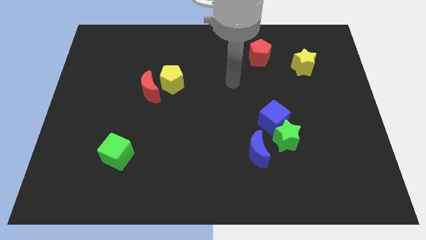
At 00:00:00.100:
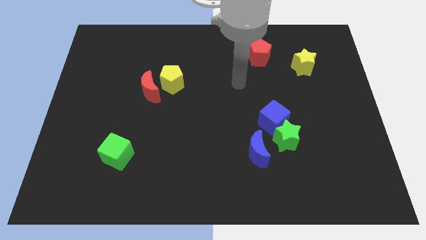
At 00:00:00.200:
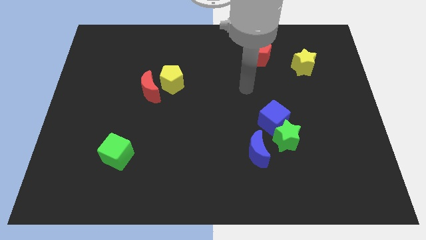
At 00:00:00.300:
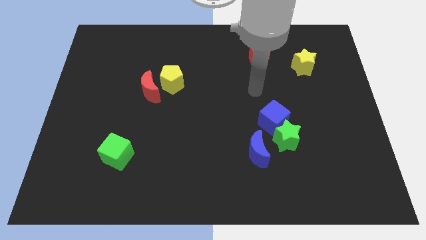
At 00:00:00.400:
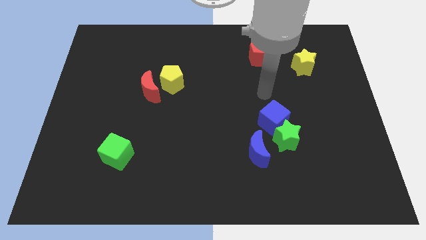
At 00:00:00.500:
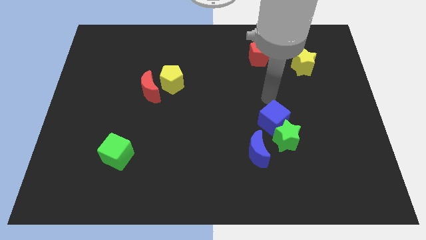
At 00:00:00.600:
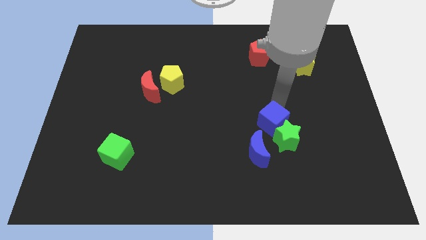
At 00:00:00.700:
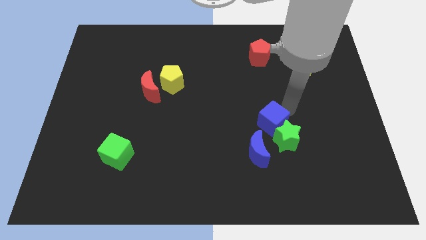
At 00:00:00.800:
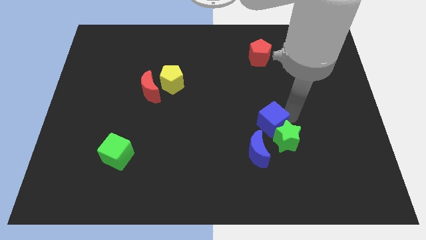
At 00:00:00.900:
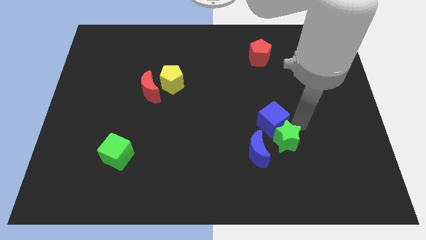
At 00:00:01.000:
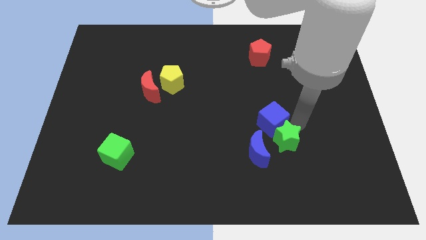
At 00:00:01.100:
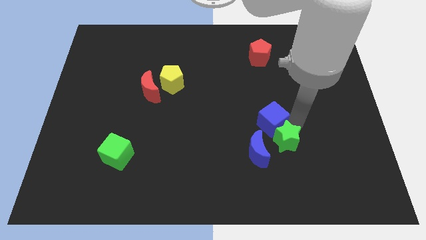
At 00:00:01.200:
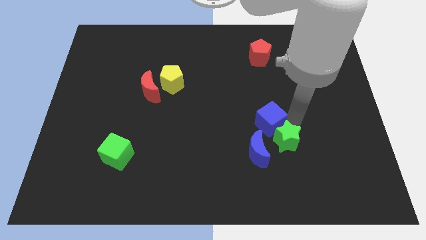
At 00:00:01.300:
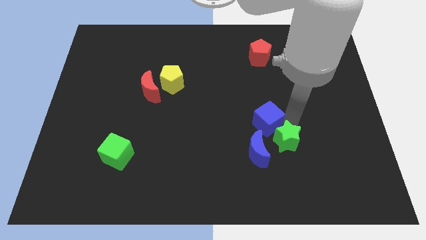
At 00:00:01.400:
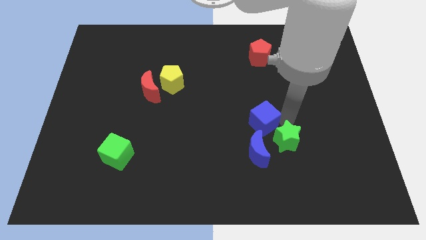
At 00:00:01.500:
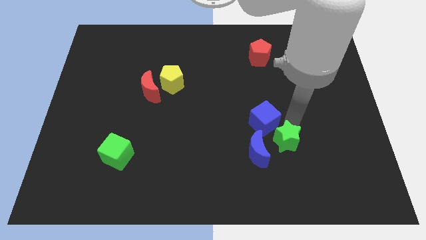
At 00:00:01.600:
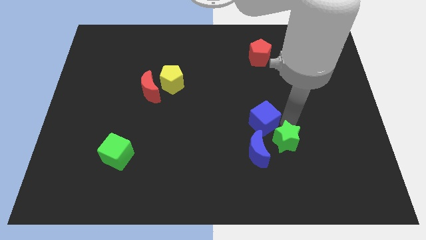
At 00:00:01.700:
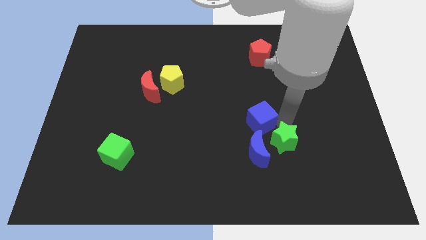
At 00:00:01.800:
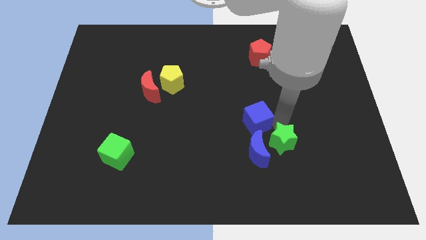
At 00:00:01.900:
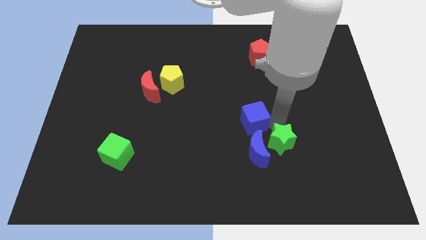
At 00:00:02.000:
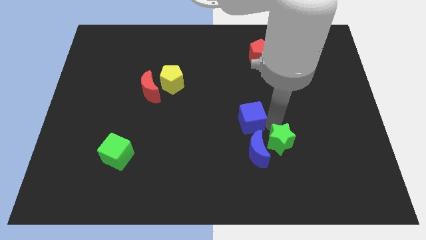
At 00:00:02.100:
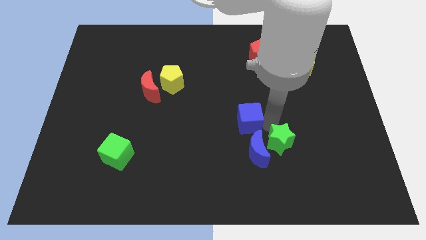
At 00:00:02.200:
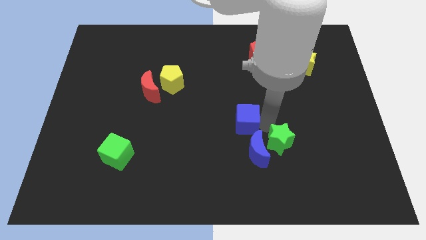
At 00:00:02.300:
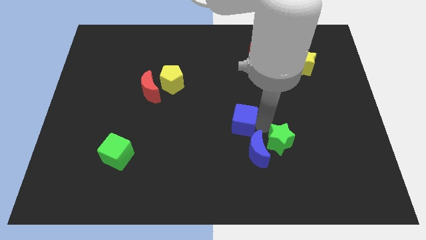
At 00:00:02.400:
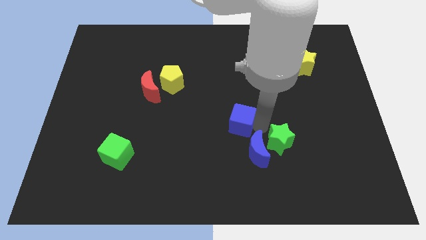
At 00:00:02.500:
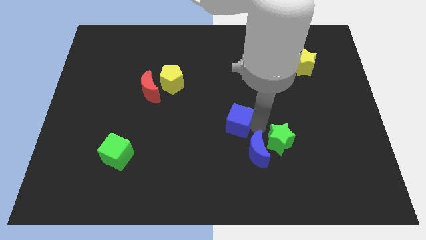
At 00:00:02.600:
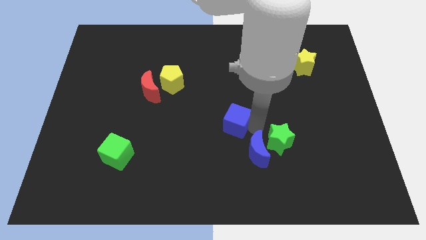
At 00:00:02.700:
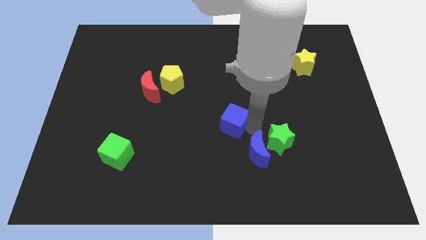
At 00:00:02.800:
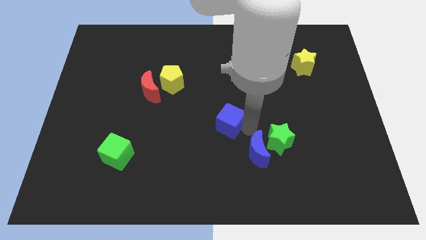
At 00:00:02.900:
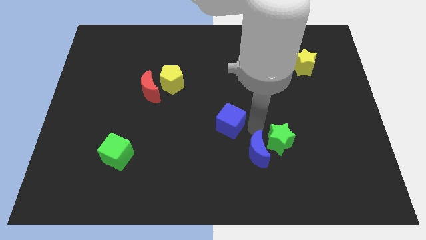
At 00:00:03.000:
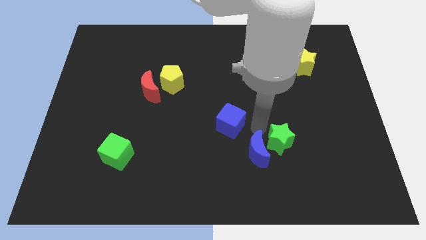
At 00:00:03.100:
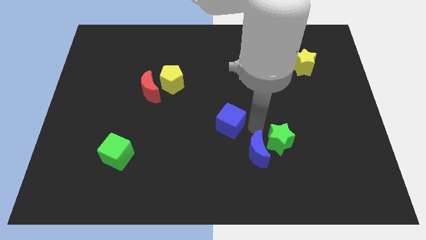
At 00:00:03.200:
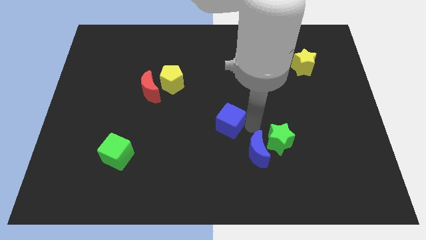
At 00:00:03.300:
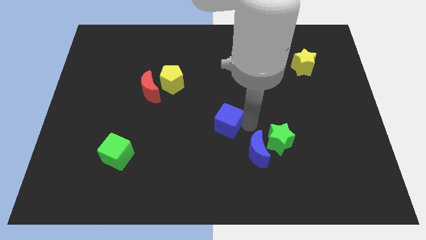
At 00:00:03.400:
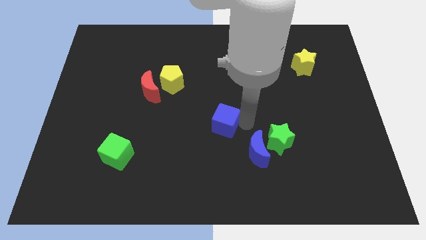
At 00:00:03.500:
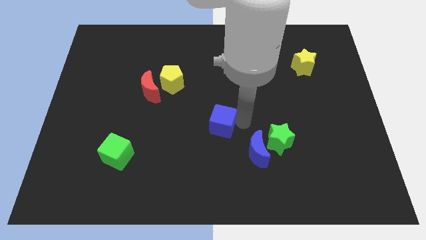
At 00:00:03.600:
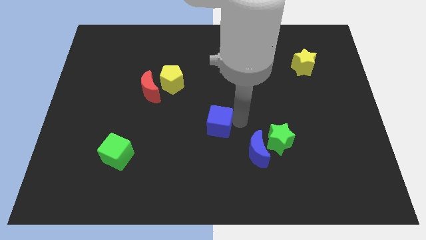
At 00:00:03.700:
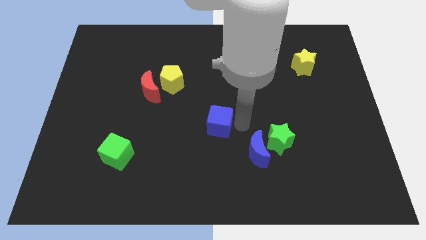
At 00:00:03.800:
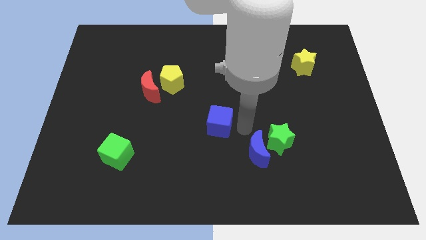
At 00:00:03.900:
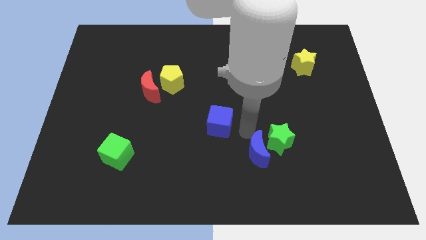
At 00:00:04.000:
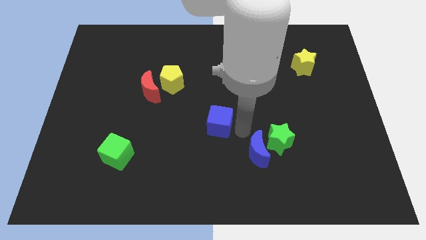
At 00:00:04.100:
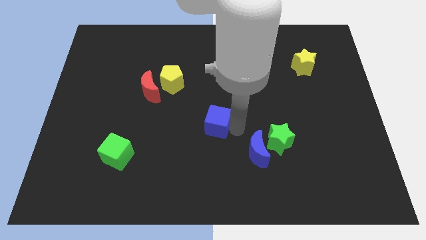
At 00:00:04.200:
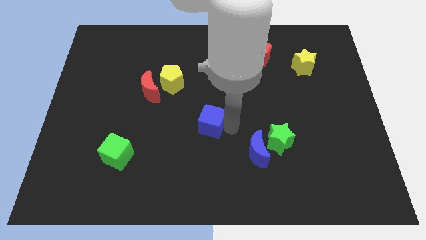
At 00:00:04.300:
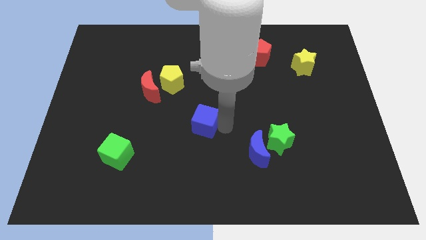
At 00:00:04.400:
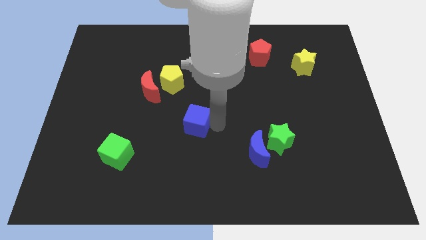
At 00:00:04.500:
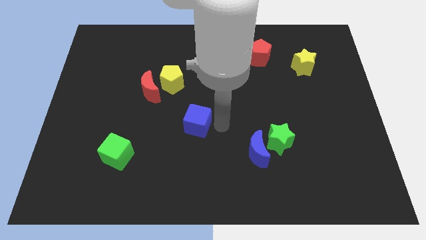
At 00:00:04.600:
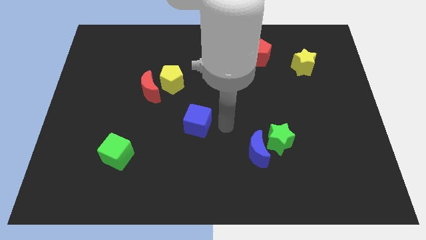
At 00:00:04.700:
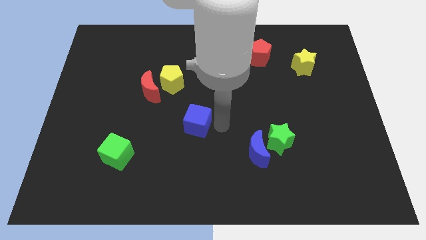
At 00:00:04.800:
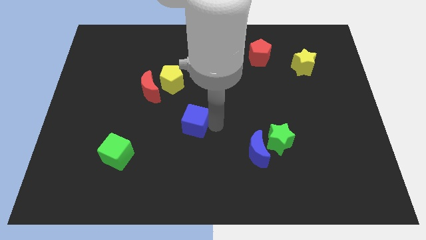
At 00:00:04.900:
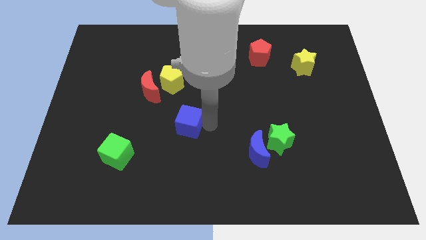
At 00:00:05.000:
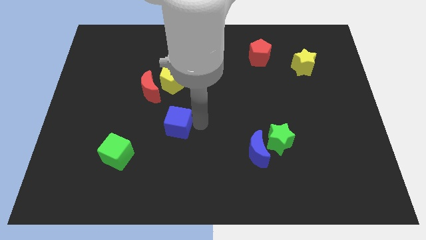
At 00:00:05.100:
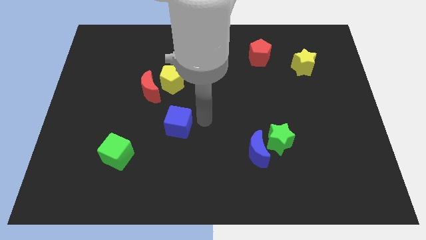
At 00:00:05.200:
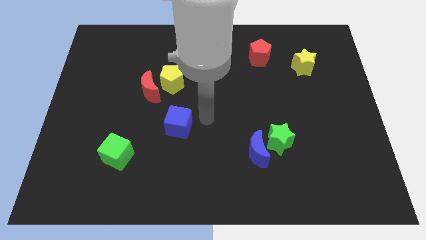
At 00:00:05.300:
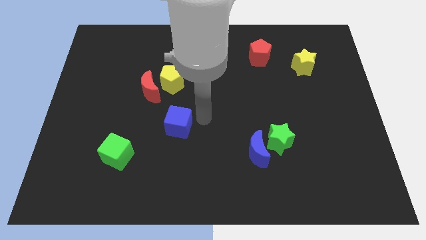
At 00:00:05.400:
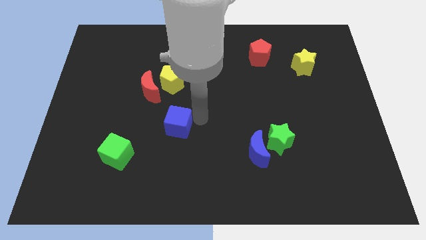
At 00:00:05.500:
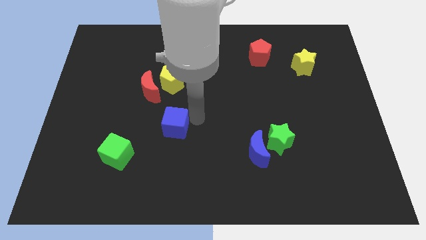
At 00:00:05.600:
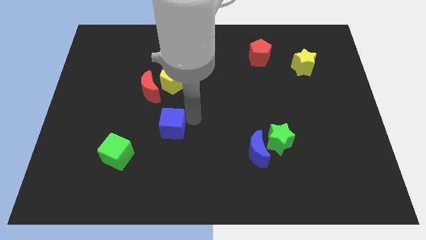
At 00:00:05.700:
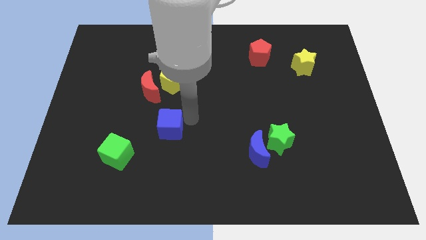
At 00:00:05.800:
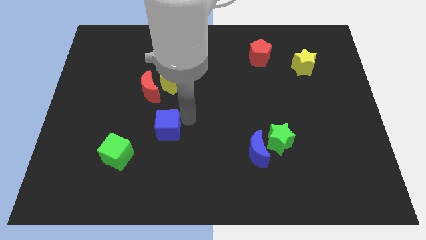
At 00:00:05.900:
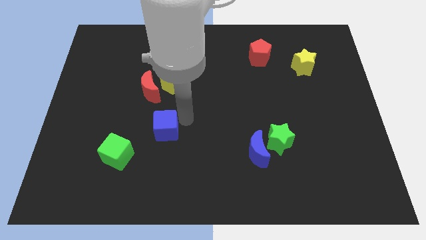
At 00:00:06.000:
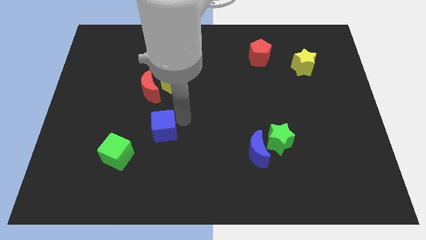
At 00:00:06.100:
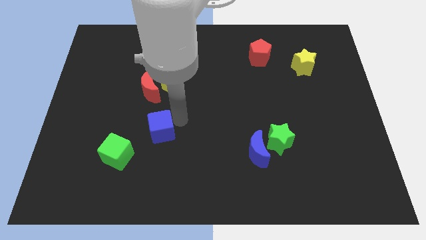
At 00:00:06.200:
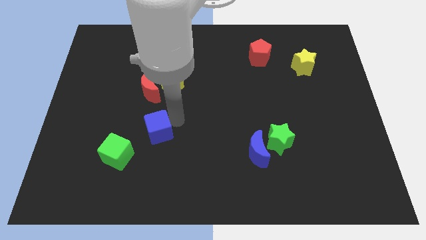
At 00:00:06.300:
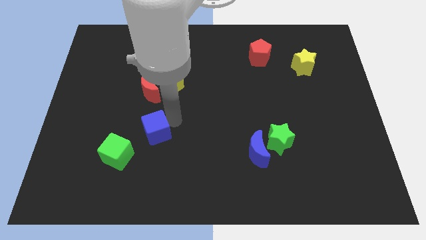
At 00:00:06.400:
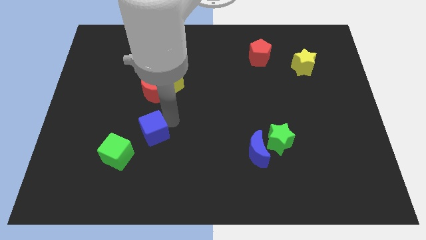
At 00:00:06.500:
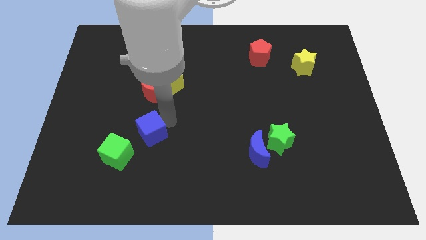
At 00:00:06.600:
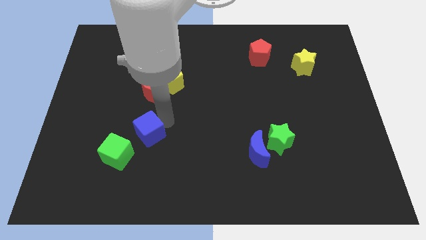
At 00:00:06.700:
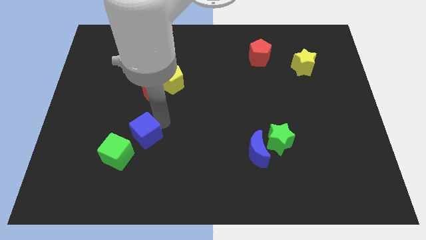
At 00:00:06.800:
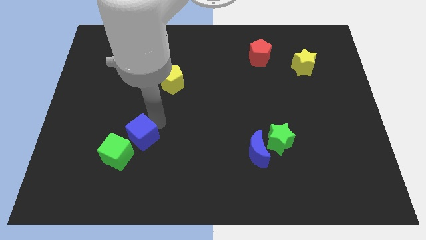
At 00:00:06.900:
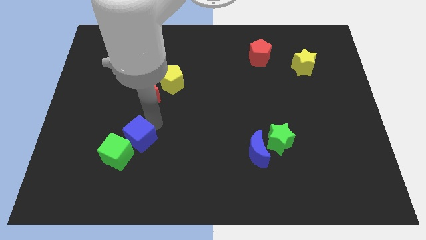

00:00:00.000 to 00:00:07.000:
move the blue cube to the green cube

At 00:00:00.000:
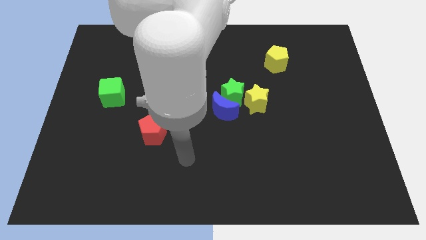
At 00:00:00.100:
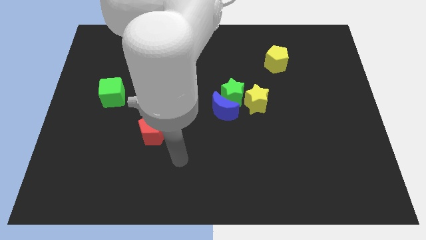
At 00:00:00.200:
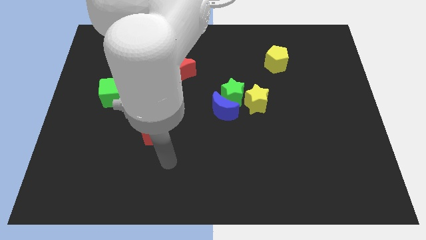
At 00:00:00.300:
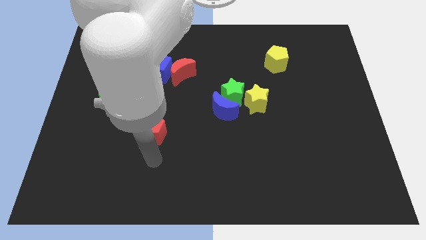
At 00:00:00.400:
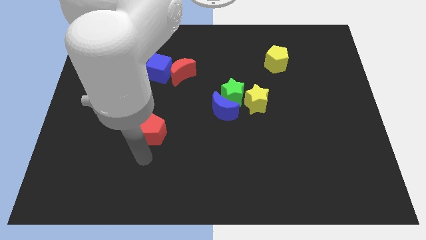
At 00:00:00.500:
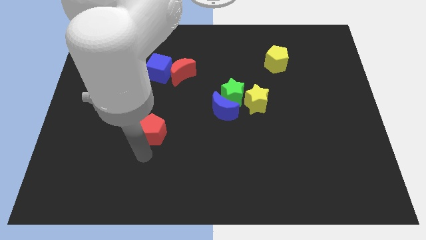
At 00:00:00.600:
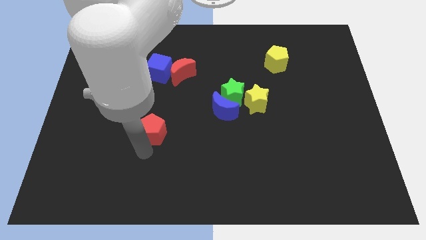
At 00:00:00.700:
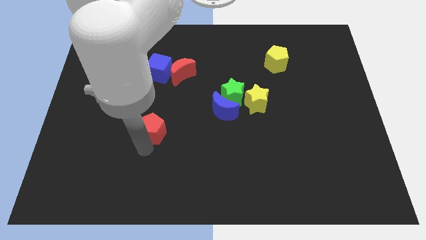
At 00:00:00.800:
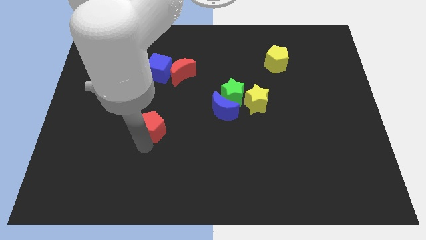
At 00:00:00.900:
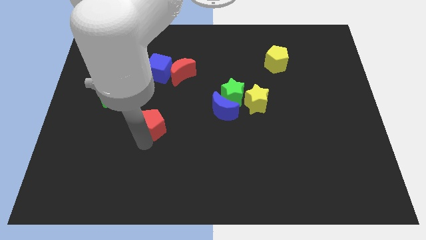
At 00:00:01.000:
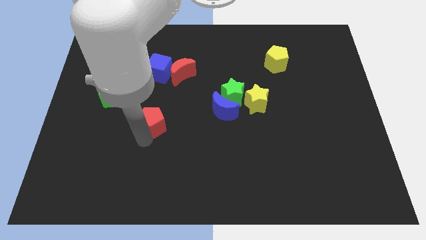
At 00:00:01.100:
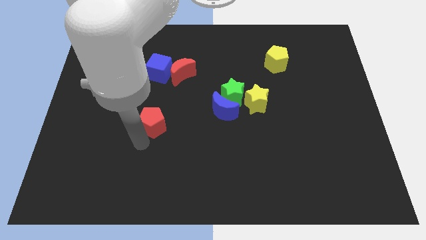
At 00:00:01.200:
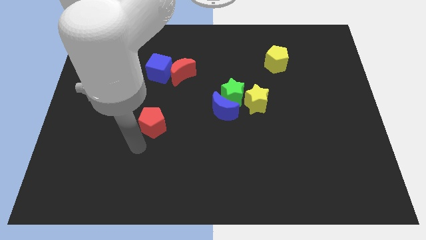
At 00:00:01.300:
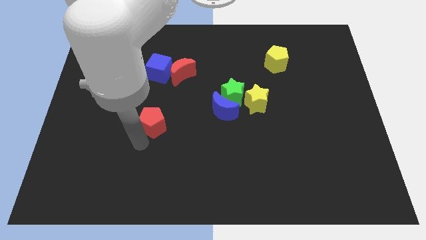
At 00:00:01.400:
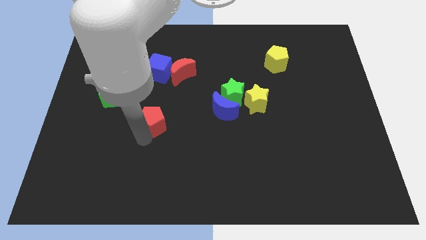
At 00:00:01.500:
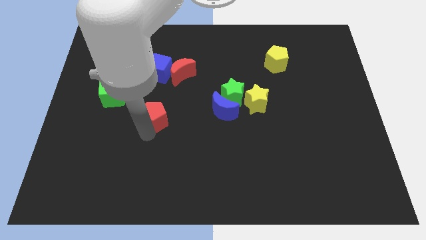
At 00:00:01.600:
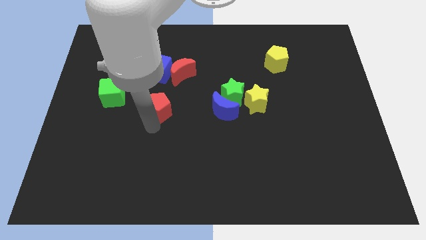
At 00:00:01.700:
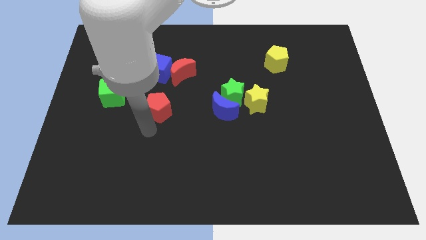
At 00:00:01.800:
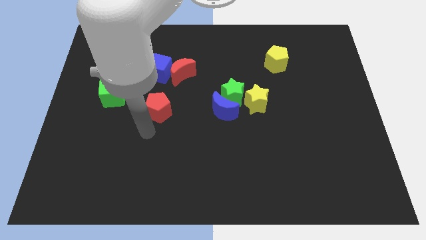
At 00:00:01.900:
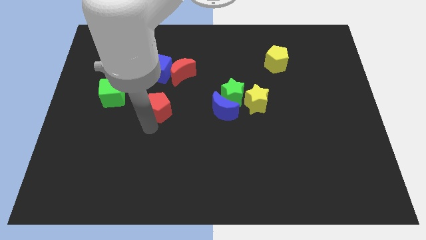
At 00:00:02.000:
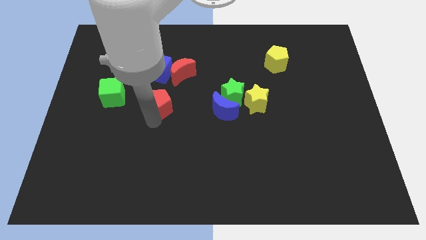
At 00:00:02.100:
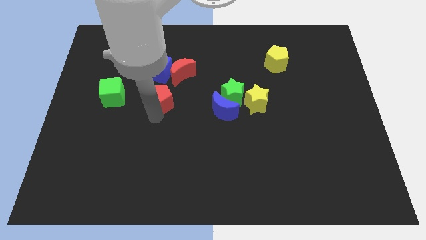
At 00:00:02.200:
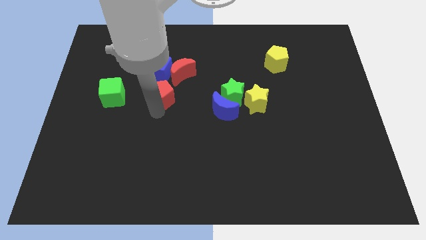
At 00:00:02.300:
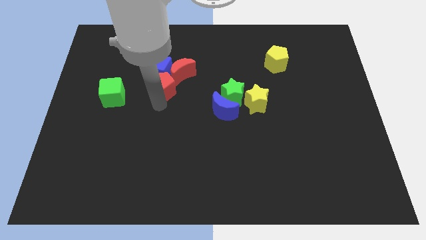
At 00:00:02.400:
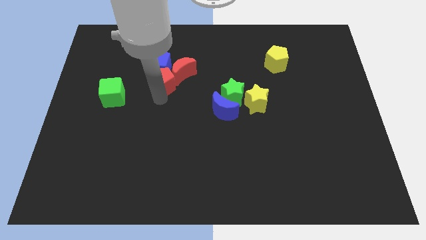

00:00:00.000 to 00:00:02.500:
move the red pentagon close to the red moon
